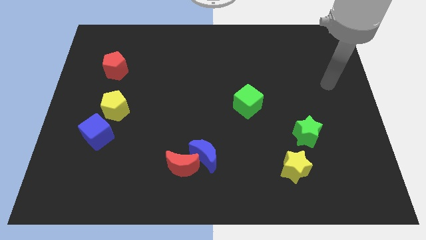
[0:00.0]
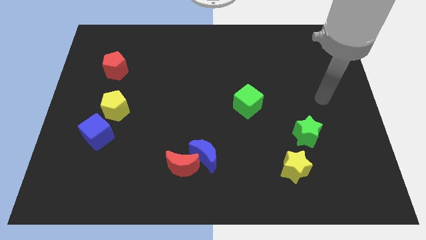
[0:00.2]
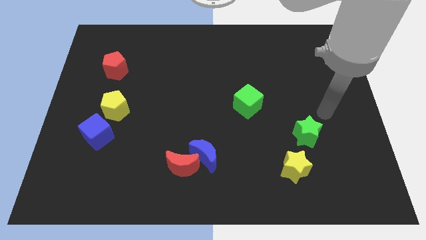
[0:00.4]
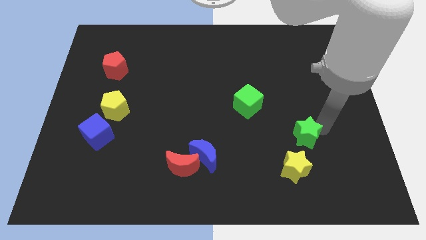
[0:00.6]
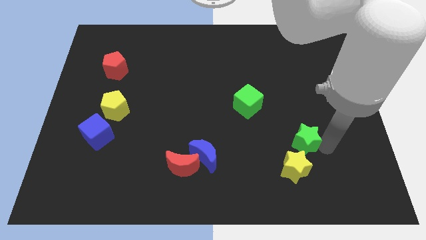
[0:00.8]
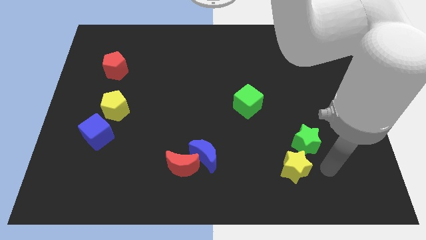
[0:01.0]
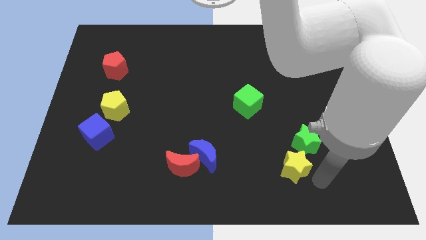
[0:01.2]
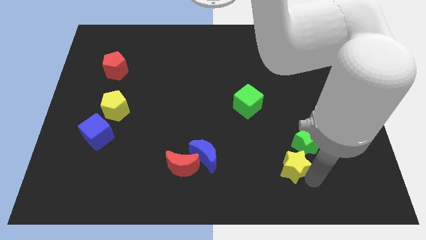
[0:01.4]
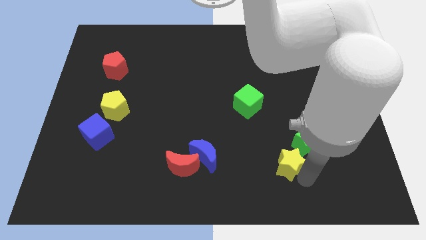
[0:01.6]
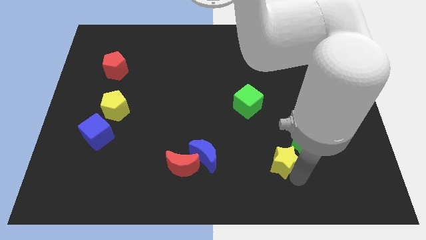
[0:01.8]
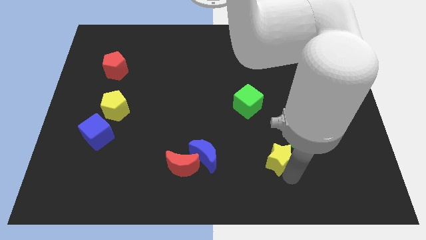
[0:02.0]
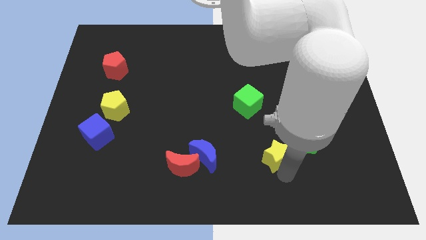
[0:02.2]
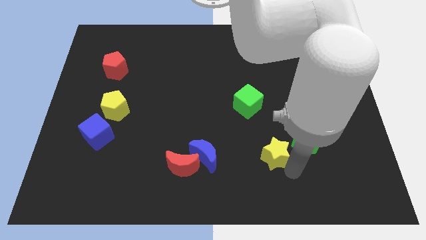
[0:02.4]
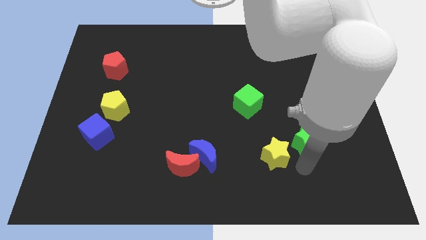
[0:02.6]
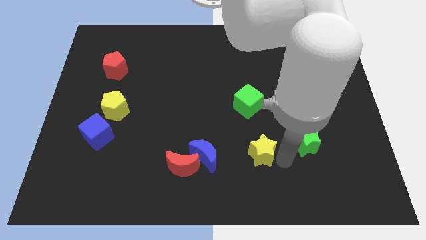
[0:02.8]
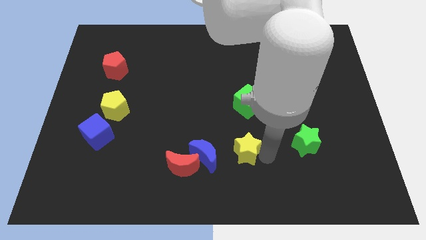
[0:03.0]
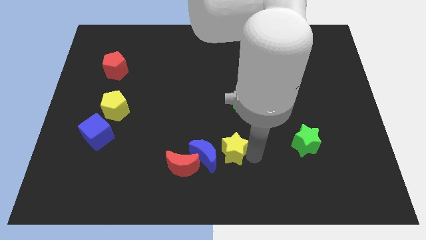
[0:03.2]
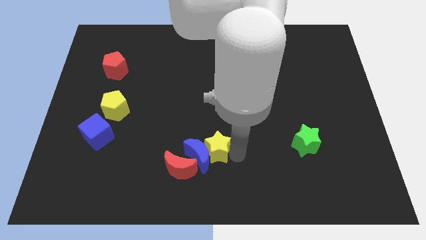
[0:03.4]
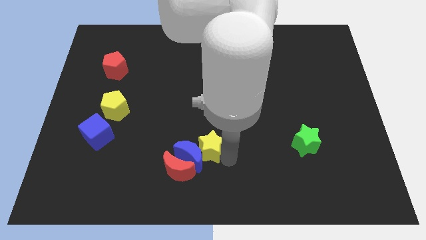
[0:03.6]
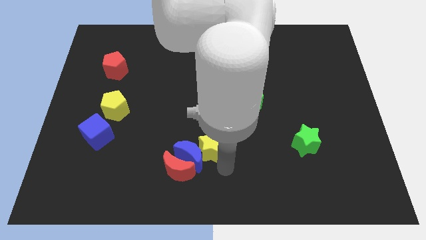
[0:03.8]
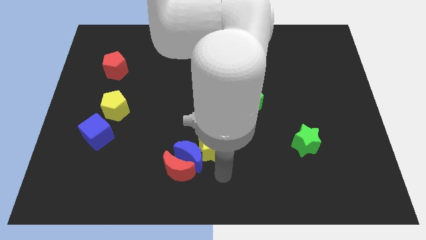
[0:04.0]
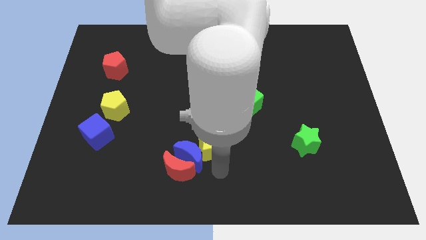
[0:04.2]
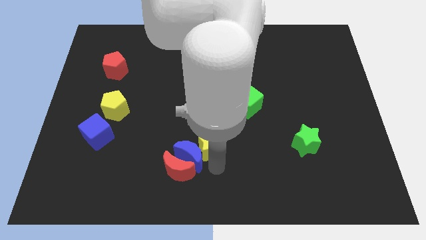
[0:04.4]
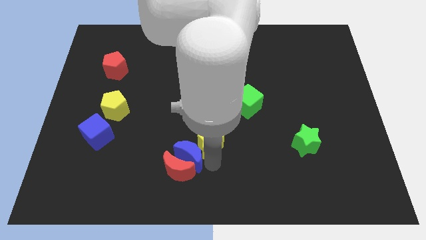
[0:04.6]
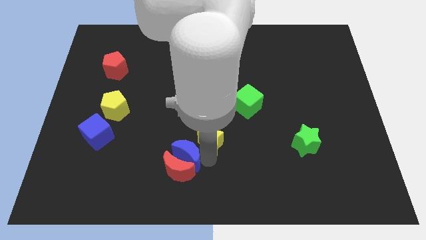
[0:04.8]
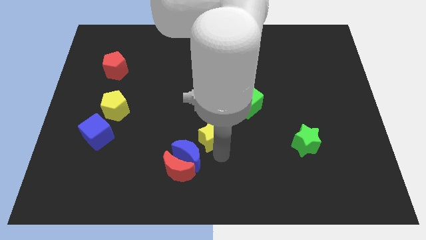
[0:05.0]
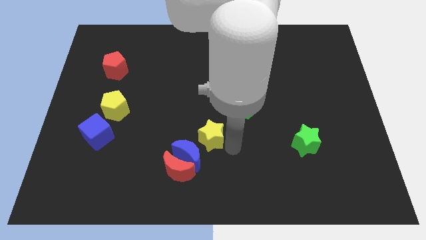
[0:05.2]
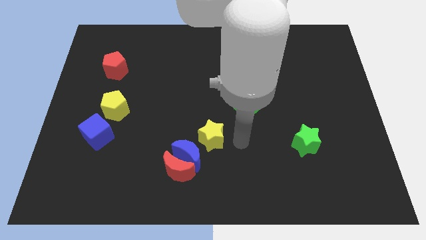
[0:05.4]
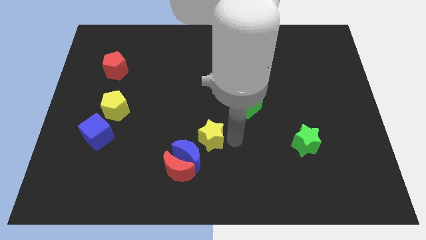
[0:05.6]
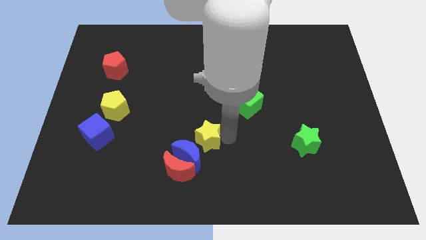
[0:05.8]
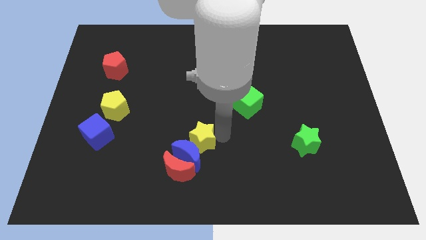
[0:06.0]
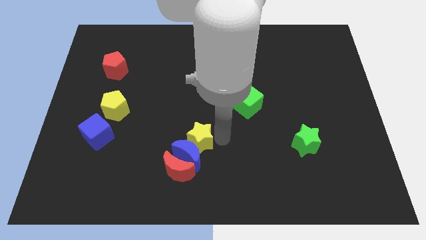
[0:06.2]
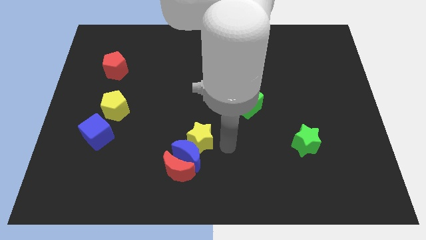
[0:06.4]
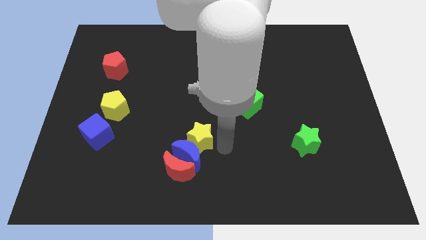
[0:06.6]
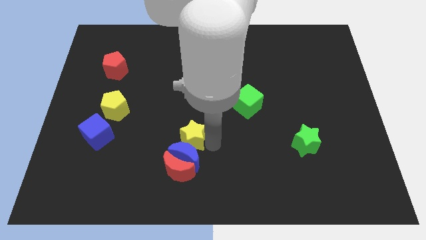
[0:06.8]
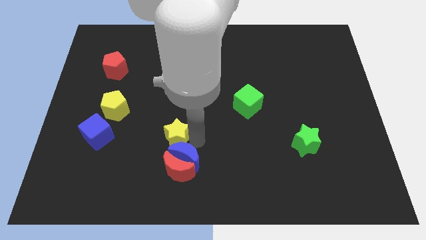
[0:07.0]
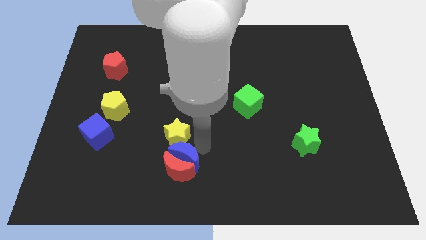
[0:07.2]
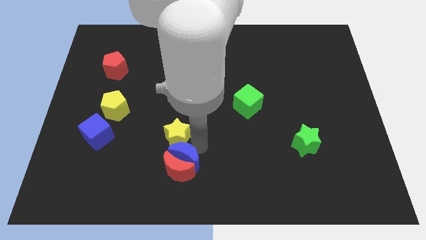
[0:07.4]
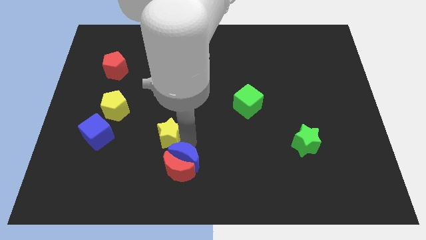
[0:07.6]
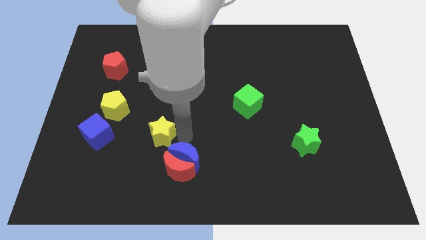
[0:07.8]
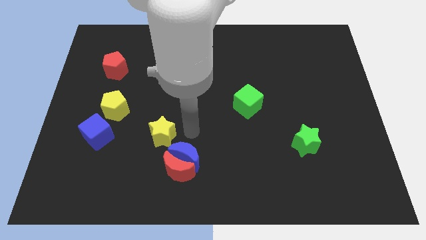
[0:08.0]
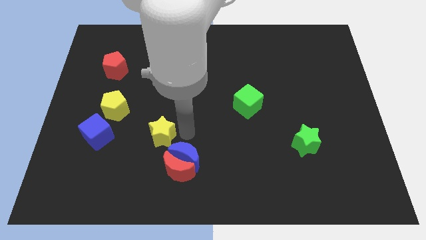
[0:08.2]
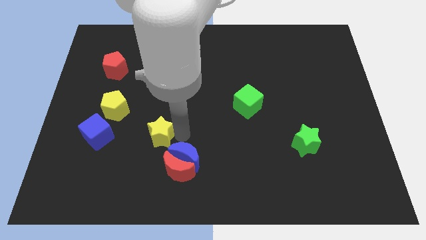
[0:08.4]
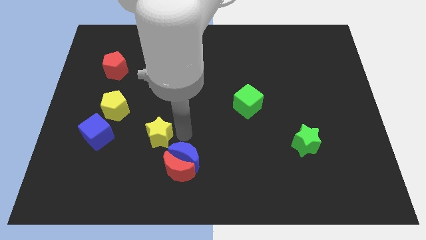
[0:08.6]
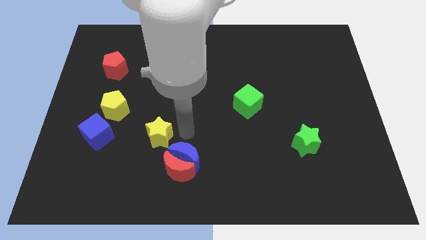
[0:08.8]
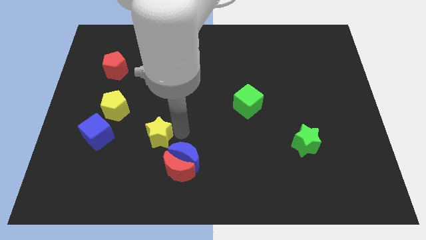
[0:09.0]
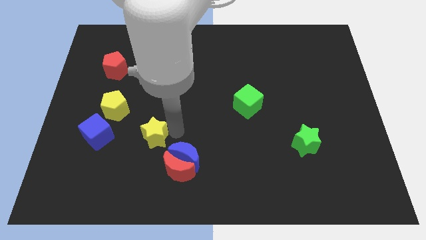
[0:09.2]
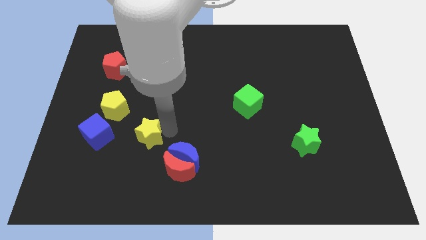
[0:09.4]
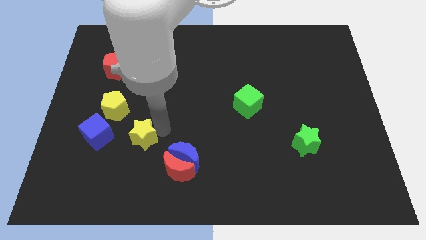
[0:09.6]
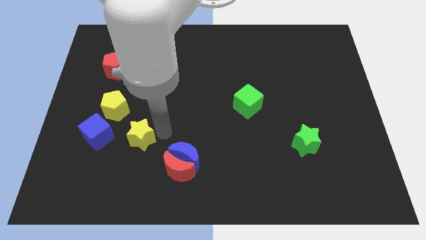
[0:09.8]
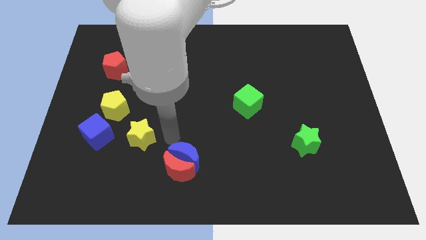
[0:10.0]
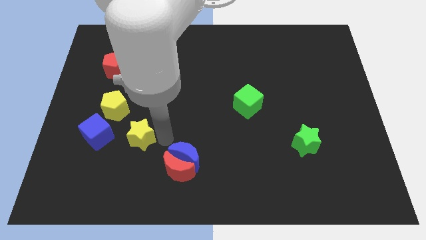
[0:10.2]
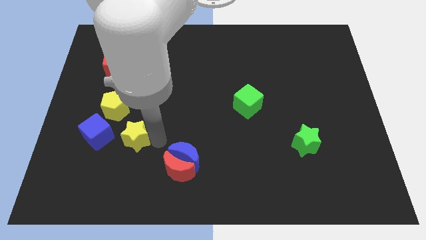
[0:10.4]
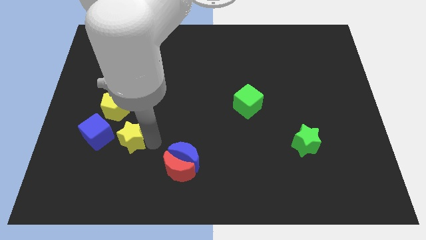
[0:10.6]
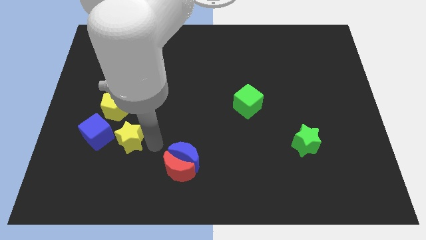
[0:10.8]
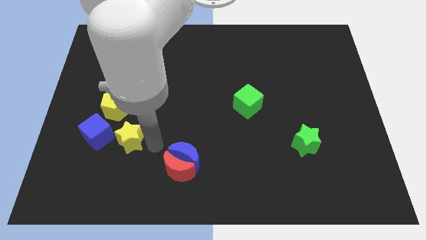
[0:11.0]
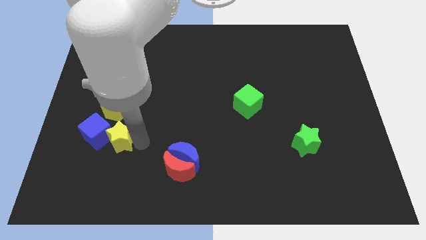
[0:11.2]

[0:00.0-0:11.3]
slide the yellow star to the blue cube

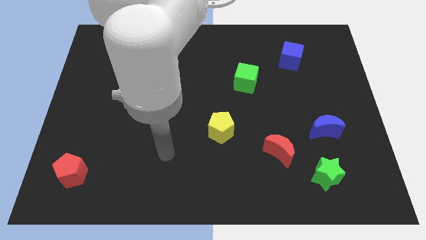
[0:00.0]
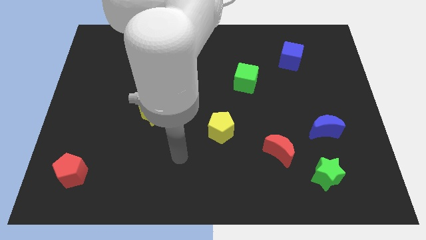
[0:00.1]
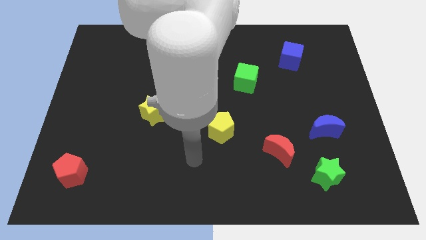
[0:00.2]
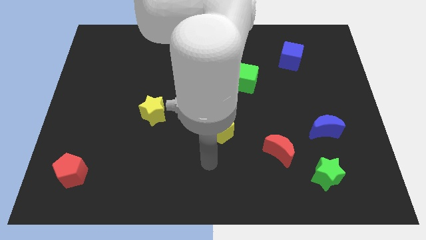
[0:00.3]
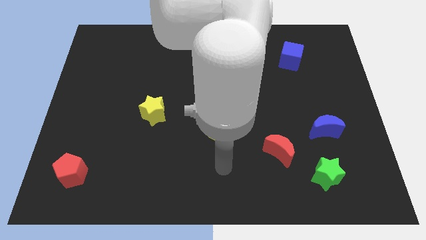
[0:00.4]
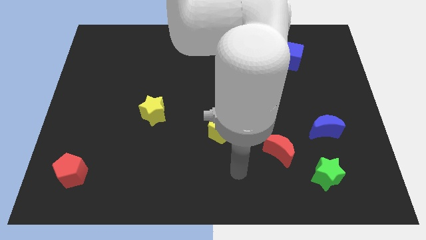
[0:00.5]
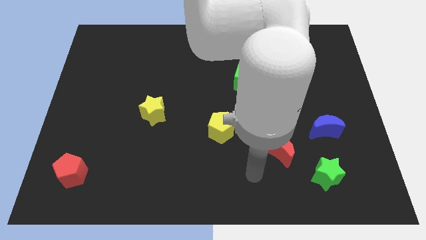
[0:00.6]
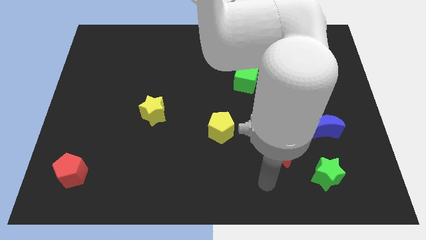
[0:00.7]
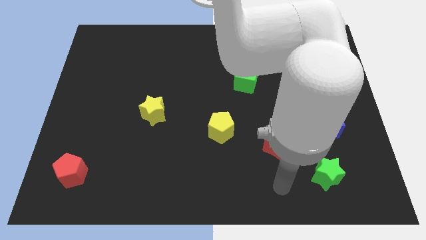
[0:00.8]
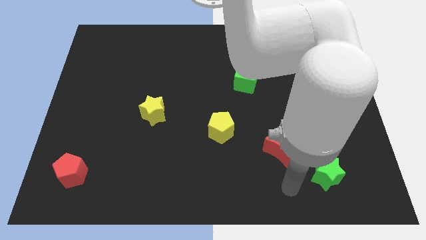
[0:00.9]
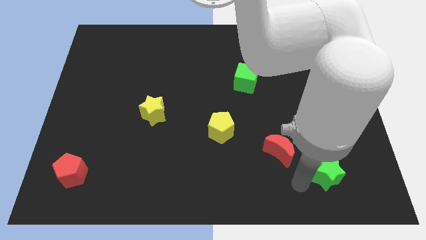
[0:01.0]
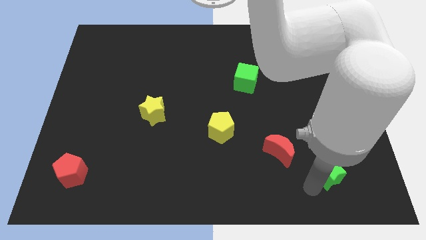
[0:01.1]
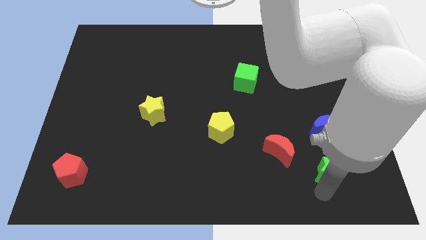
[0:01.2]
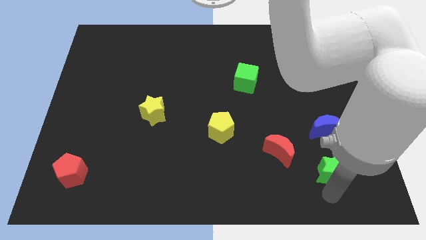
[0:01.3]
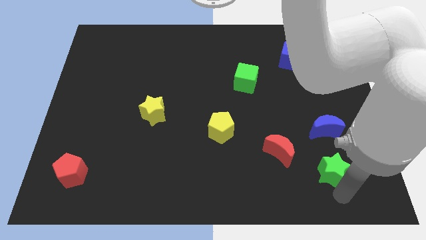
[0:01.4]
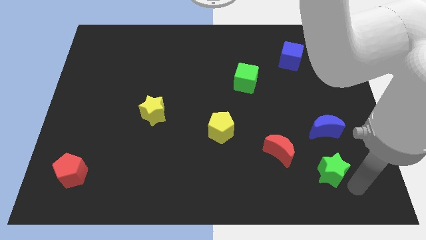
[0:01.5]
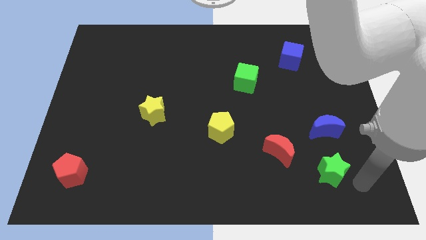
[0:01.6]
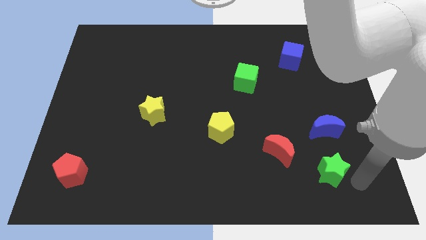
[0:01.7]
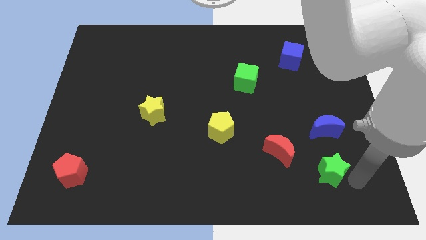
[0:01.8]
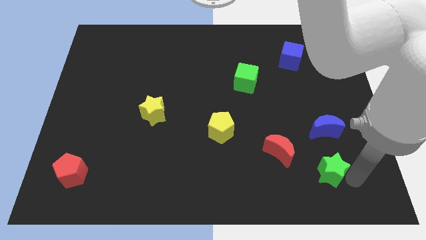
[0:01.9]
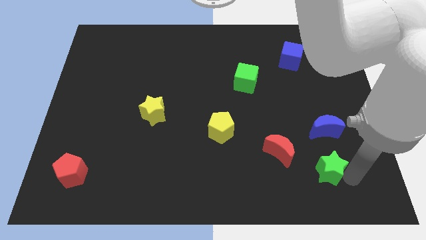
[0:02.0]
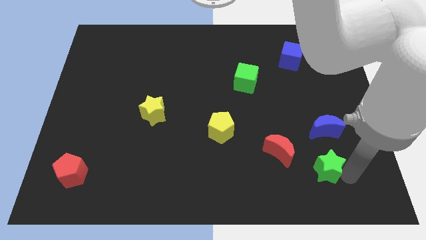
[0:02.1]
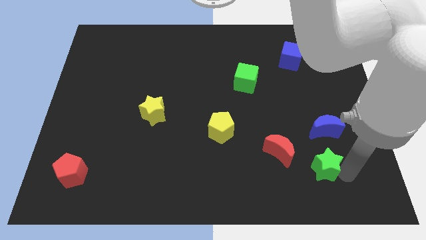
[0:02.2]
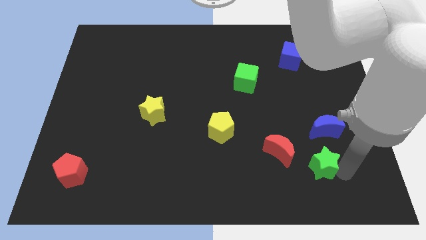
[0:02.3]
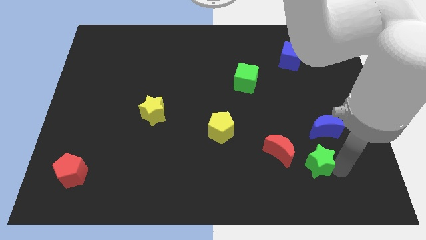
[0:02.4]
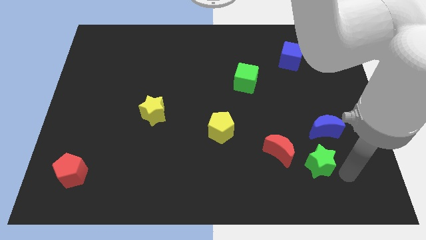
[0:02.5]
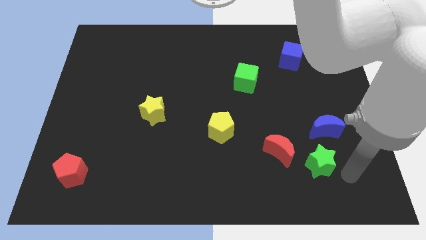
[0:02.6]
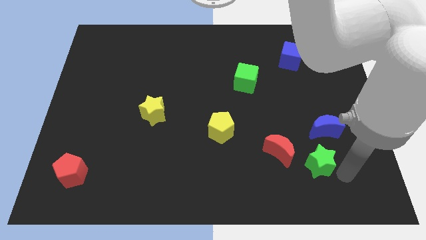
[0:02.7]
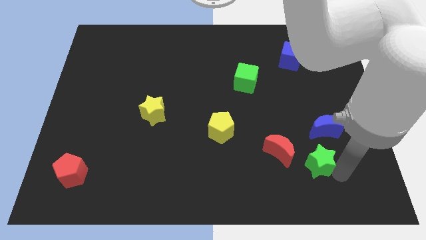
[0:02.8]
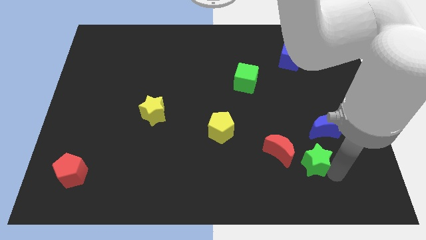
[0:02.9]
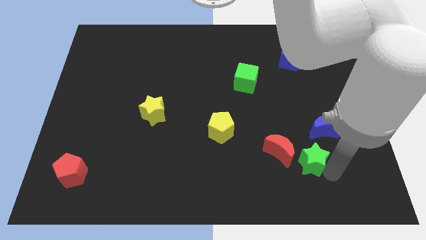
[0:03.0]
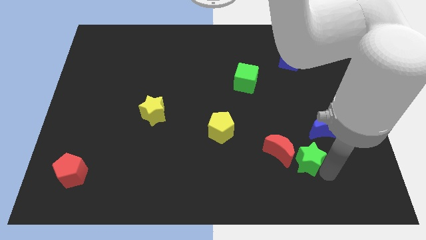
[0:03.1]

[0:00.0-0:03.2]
move the green star close to the red moon
